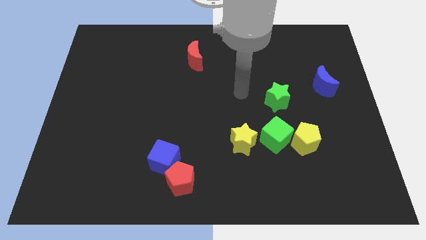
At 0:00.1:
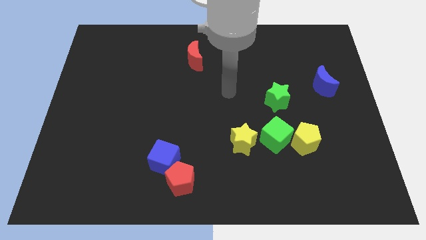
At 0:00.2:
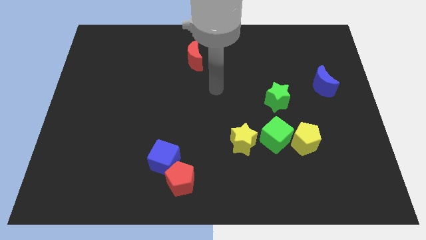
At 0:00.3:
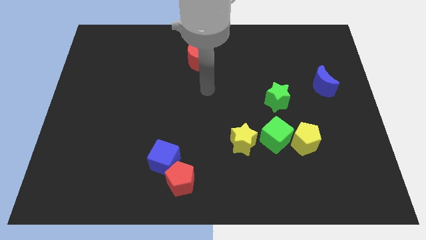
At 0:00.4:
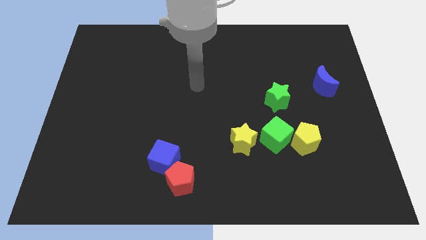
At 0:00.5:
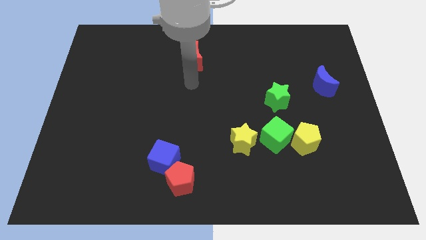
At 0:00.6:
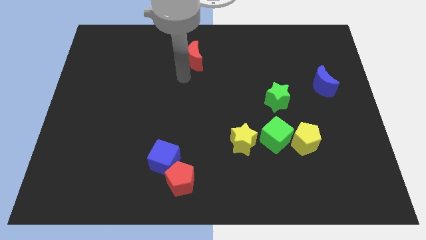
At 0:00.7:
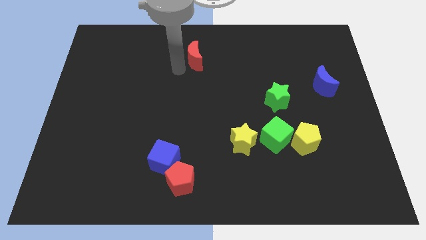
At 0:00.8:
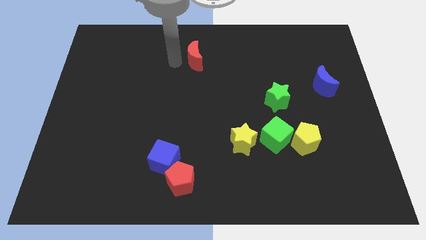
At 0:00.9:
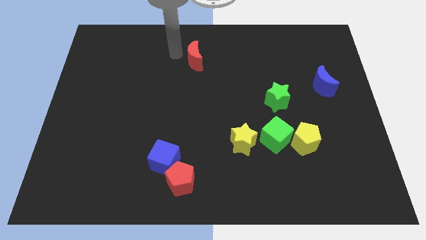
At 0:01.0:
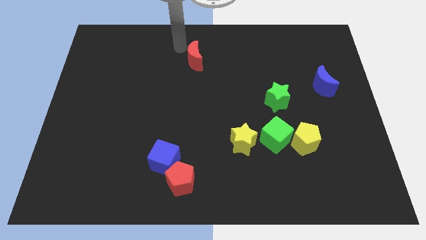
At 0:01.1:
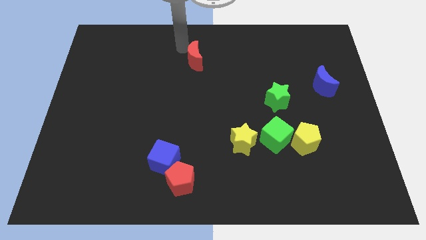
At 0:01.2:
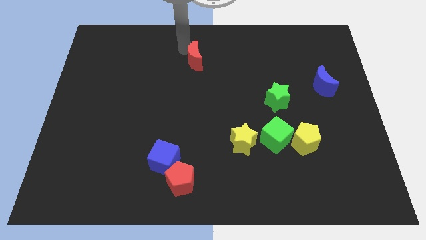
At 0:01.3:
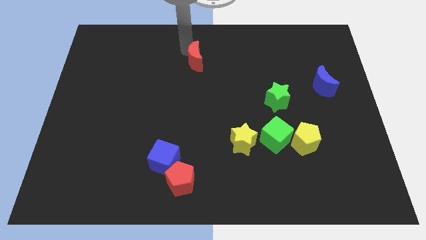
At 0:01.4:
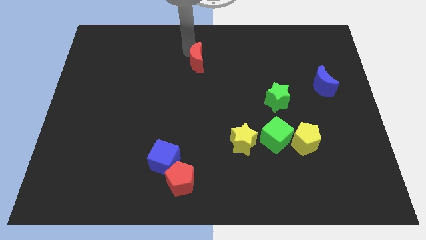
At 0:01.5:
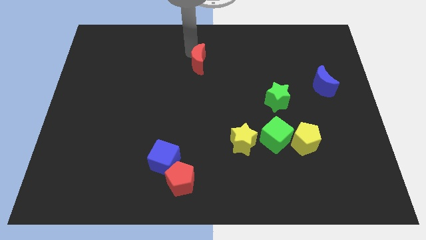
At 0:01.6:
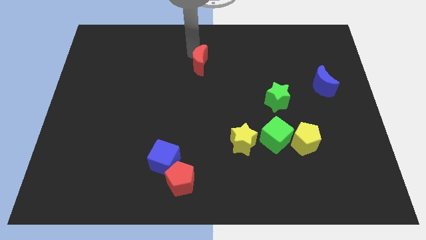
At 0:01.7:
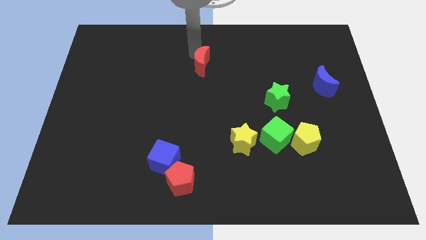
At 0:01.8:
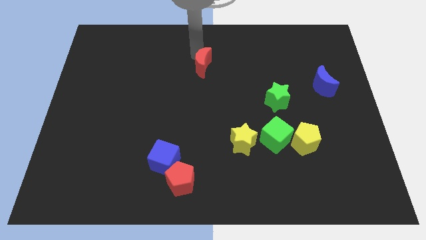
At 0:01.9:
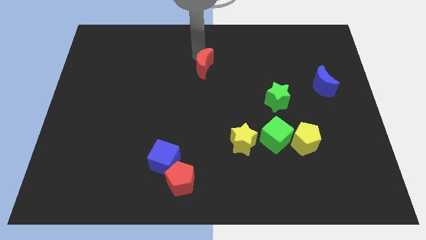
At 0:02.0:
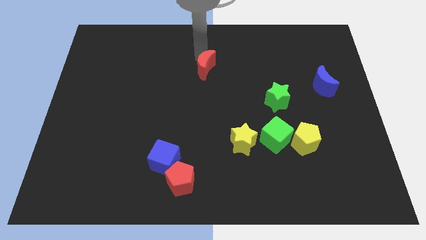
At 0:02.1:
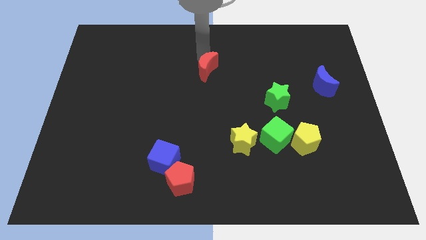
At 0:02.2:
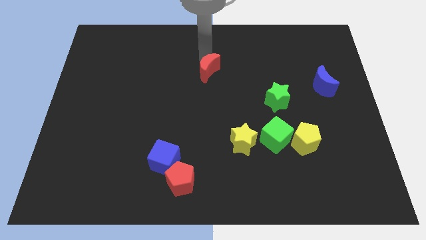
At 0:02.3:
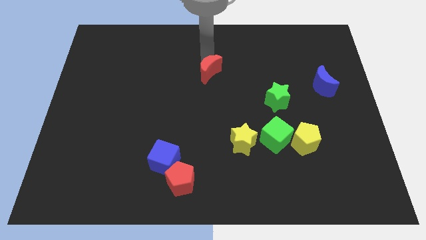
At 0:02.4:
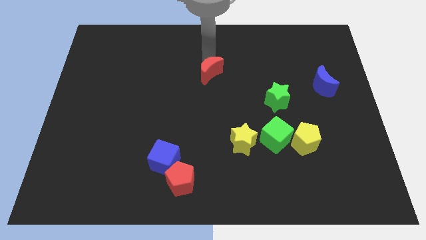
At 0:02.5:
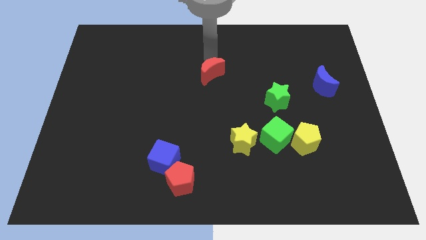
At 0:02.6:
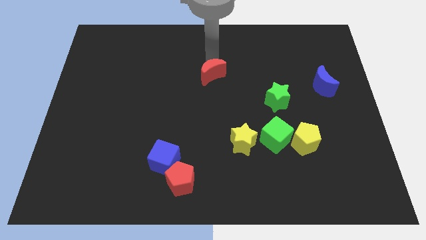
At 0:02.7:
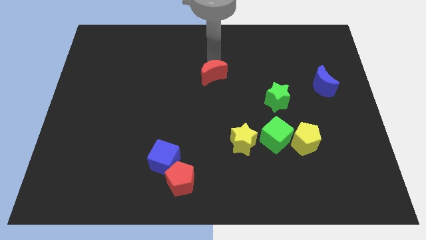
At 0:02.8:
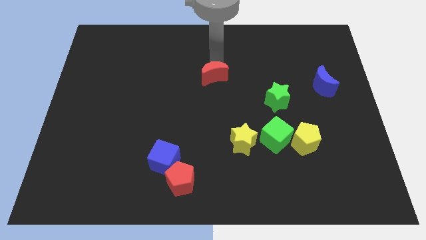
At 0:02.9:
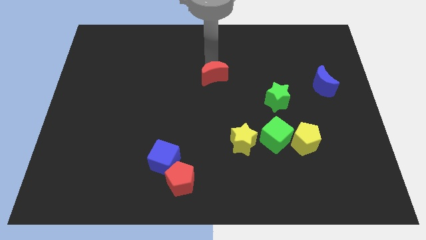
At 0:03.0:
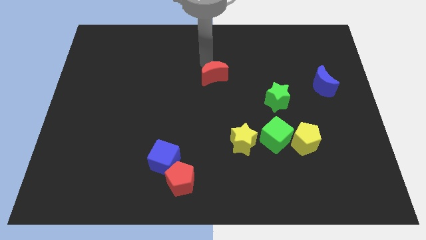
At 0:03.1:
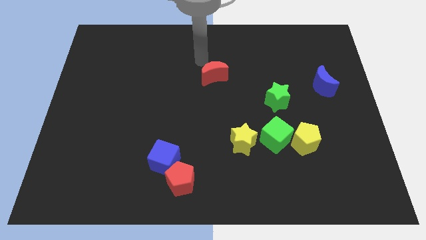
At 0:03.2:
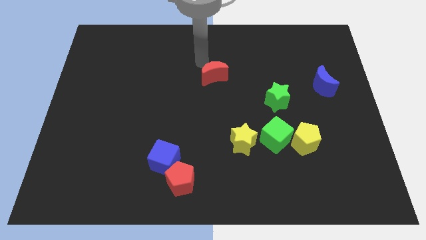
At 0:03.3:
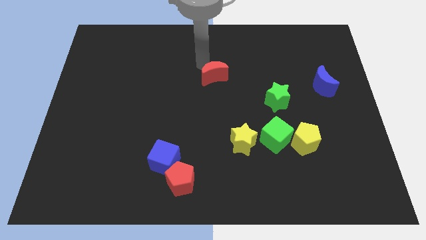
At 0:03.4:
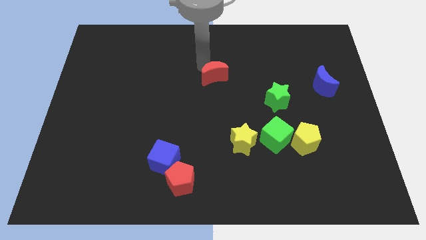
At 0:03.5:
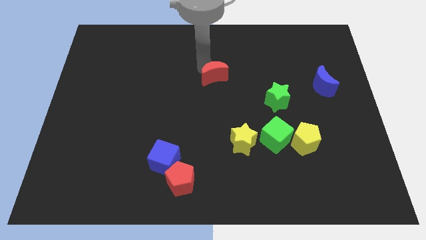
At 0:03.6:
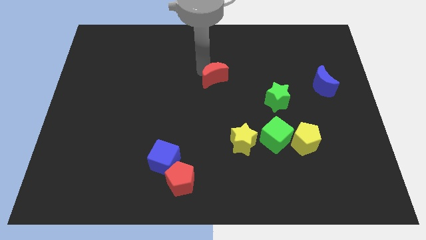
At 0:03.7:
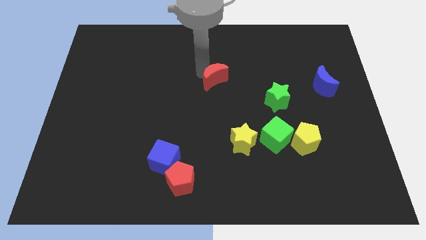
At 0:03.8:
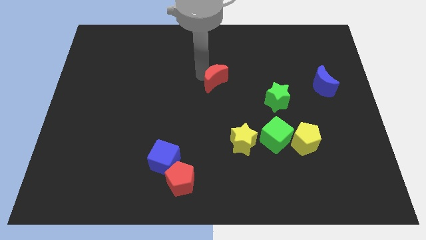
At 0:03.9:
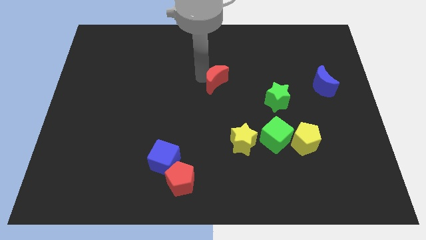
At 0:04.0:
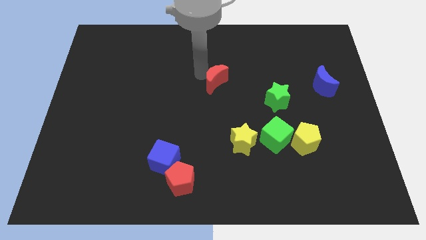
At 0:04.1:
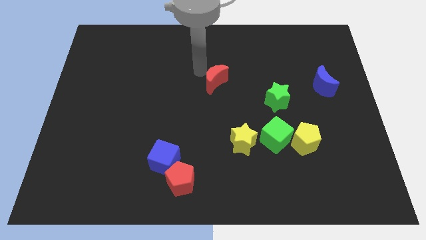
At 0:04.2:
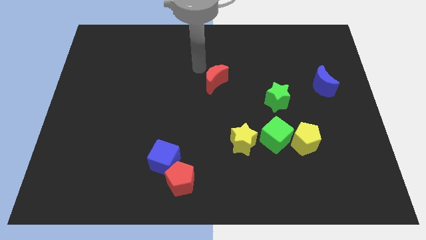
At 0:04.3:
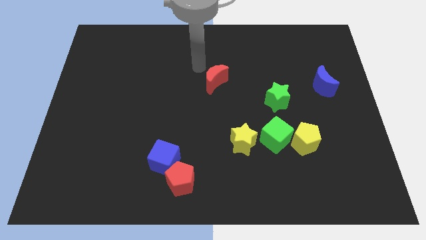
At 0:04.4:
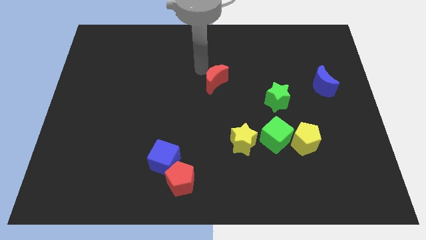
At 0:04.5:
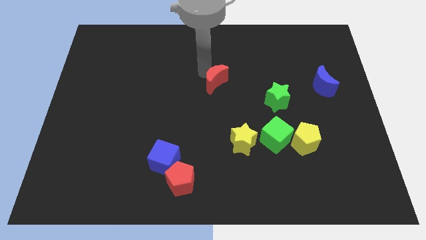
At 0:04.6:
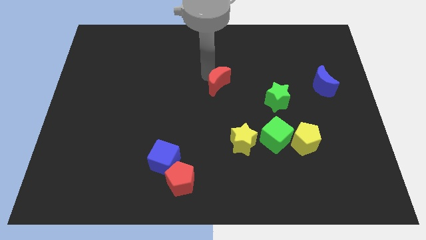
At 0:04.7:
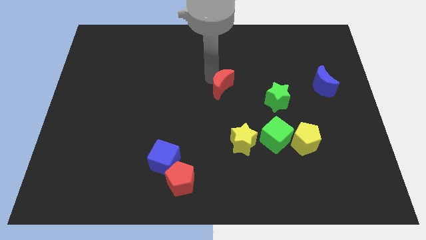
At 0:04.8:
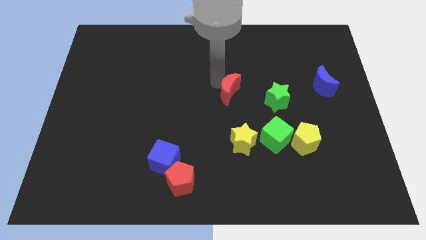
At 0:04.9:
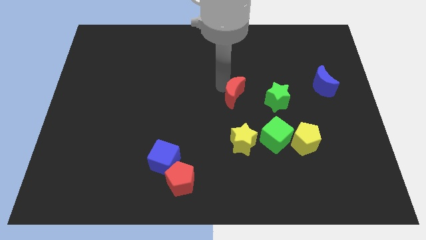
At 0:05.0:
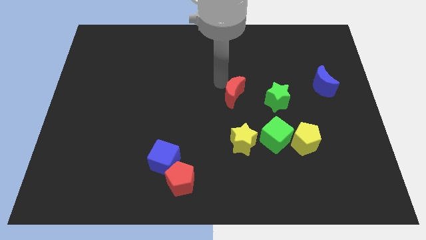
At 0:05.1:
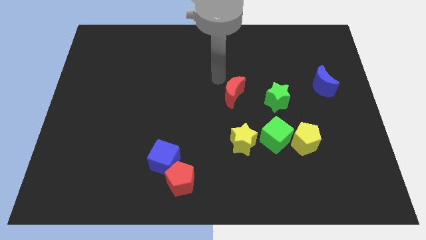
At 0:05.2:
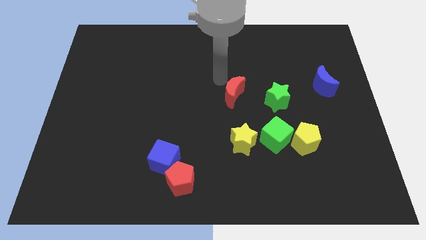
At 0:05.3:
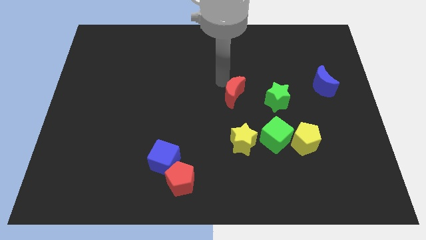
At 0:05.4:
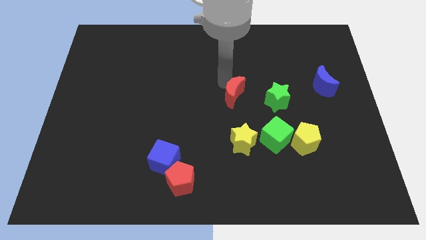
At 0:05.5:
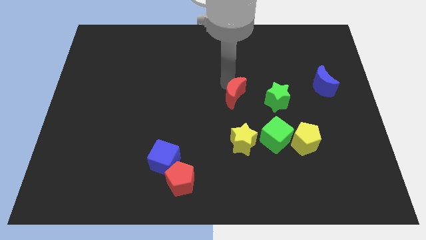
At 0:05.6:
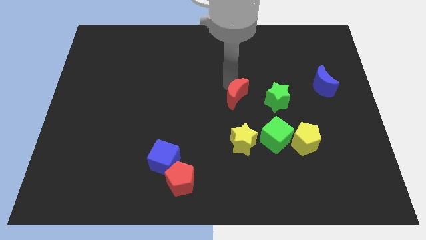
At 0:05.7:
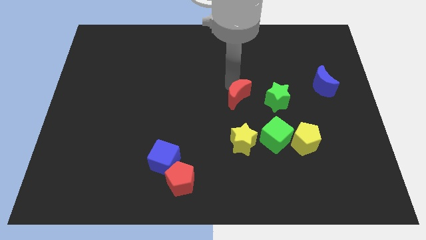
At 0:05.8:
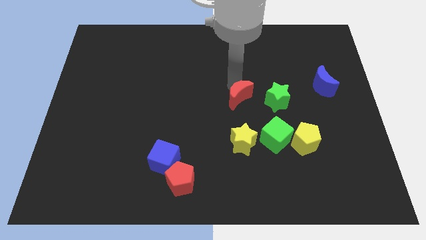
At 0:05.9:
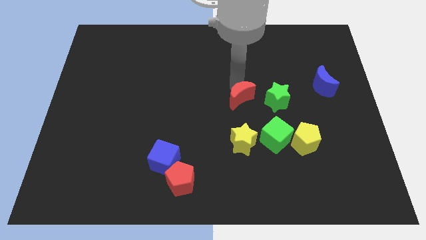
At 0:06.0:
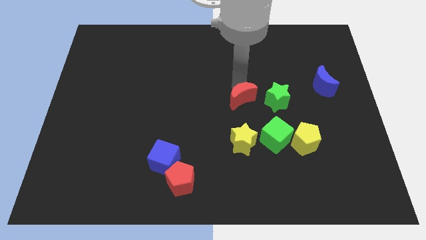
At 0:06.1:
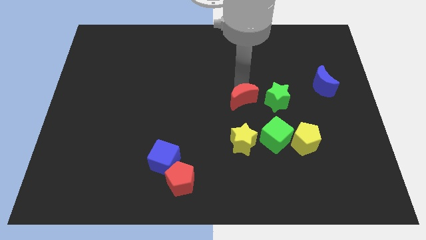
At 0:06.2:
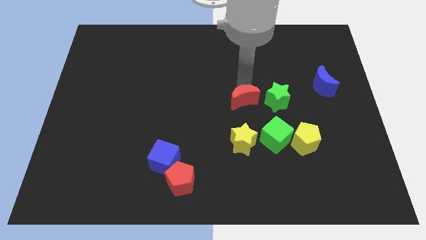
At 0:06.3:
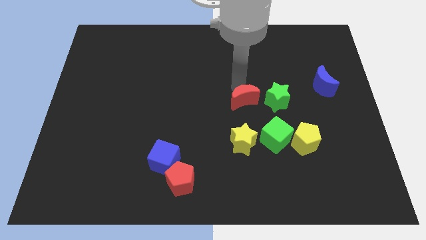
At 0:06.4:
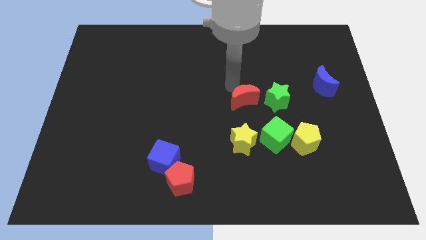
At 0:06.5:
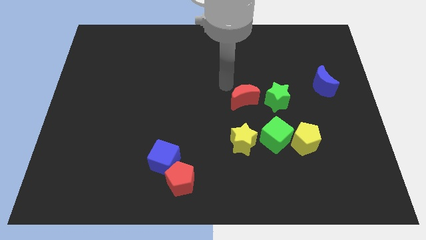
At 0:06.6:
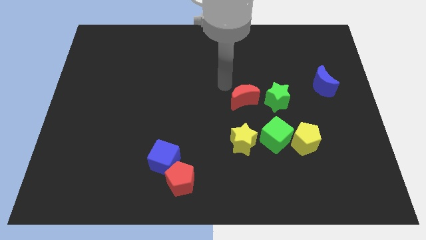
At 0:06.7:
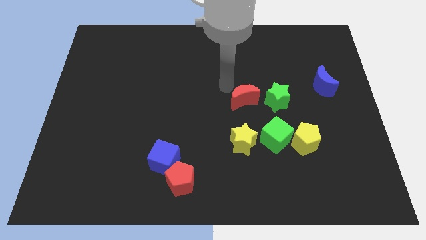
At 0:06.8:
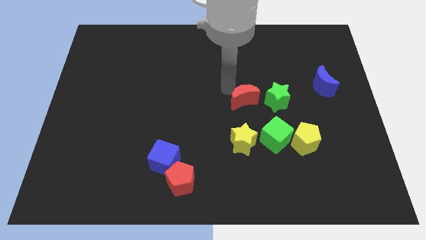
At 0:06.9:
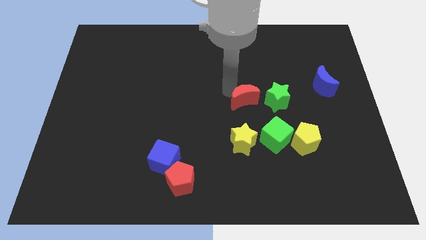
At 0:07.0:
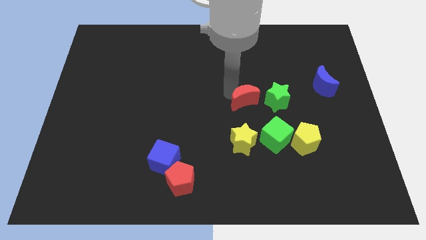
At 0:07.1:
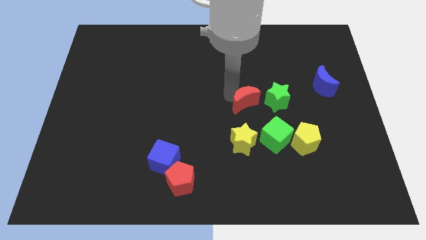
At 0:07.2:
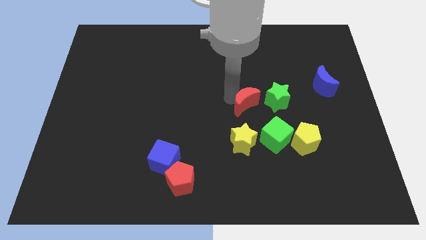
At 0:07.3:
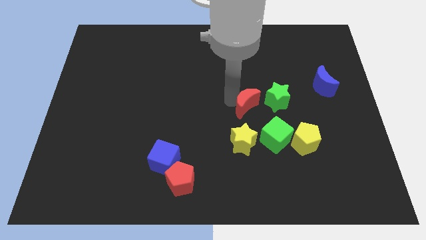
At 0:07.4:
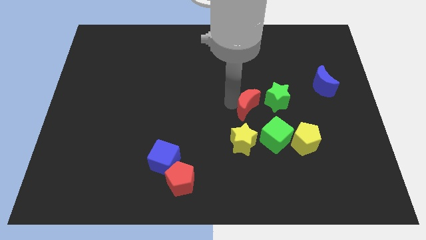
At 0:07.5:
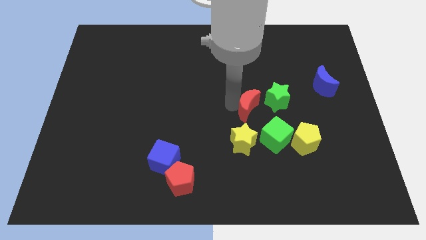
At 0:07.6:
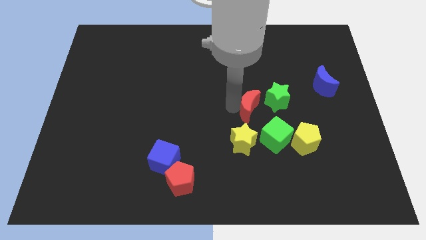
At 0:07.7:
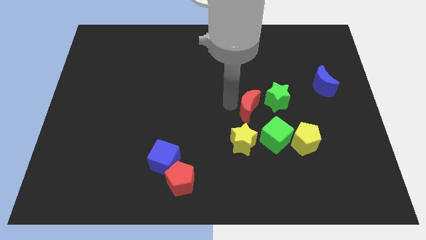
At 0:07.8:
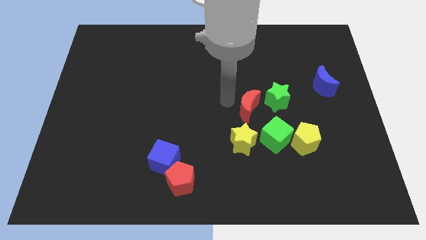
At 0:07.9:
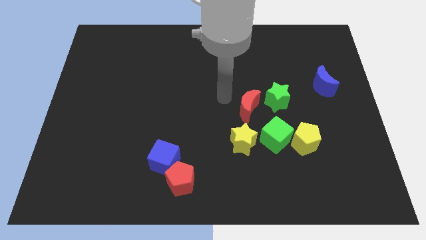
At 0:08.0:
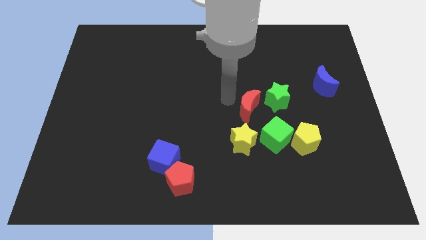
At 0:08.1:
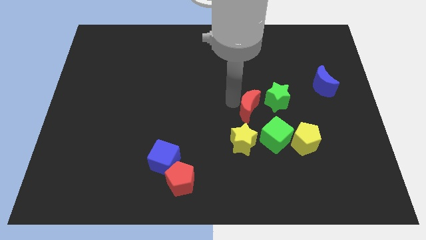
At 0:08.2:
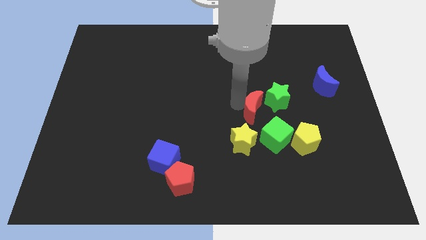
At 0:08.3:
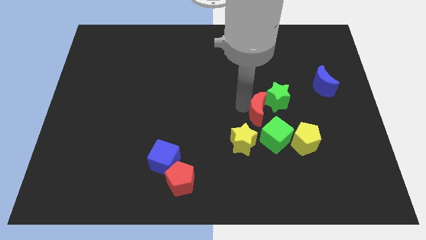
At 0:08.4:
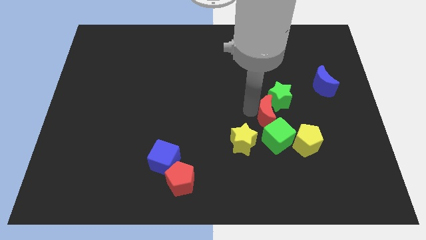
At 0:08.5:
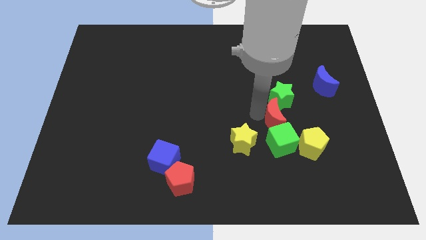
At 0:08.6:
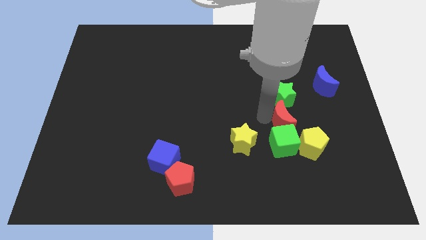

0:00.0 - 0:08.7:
move the red moon diagonally up and to the right of the green cube
